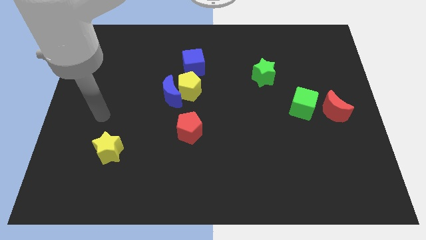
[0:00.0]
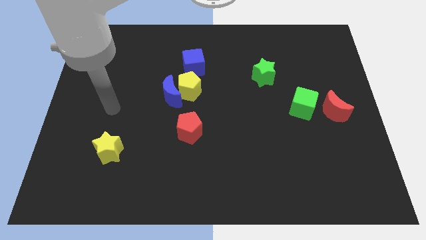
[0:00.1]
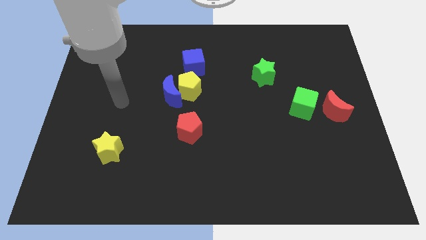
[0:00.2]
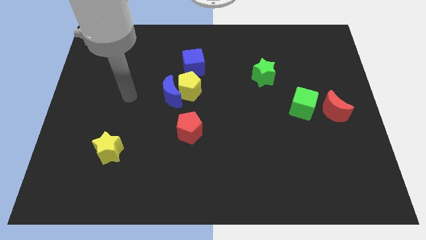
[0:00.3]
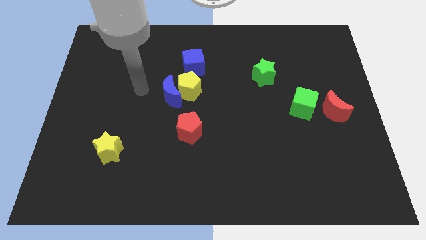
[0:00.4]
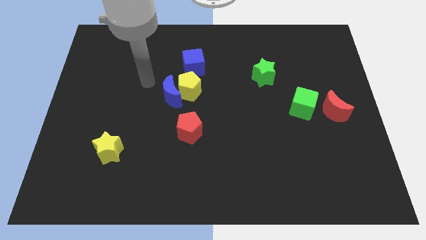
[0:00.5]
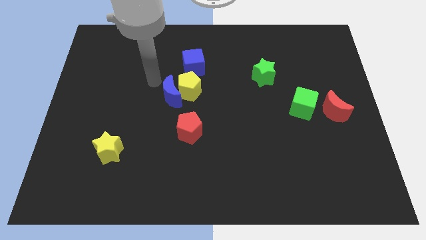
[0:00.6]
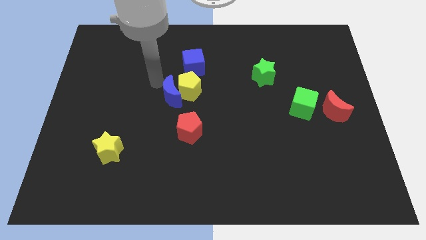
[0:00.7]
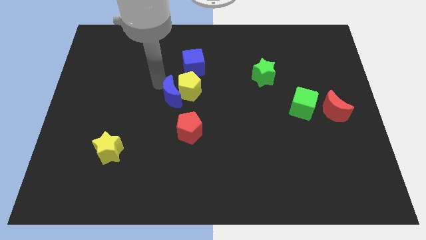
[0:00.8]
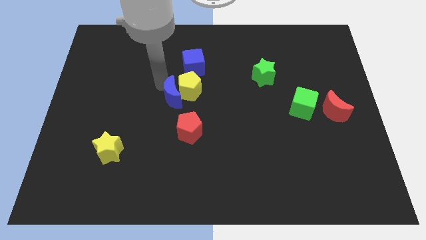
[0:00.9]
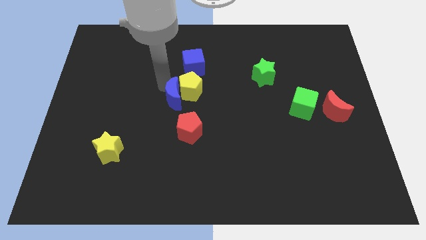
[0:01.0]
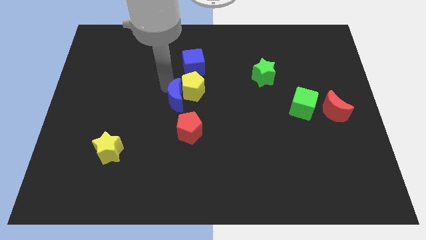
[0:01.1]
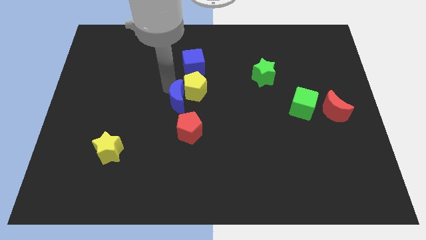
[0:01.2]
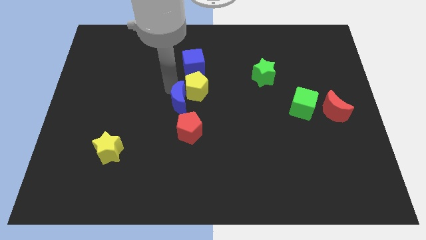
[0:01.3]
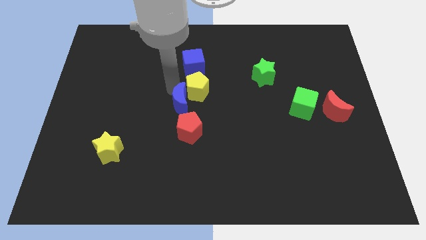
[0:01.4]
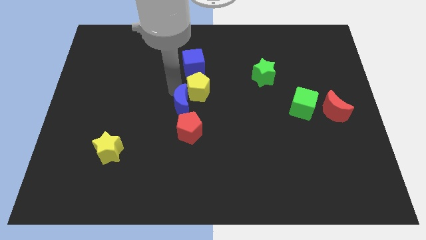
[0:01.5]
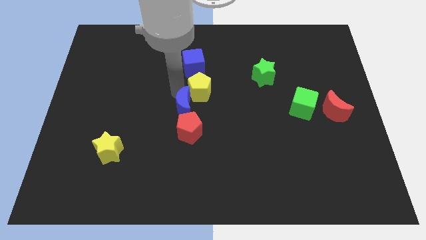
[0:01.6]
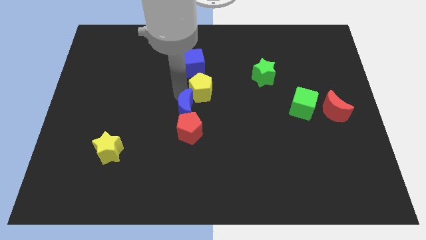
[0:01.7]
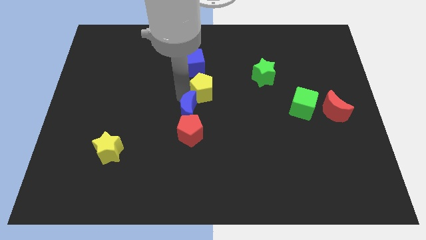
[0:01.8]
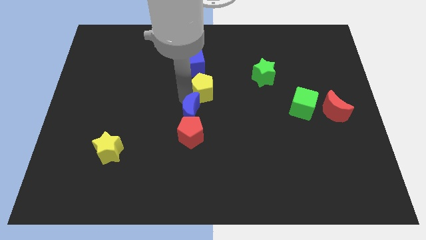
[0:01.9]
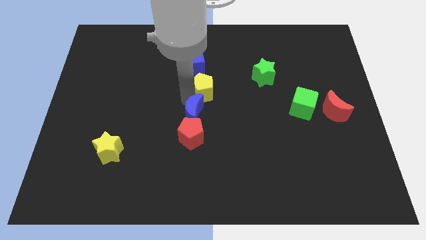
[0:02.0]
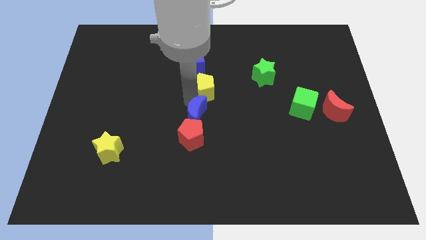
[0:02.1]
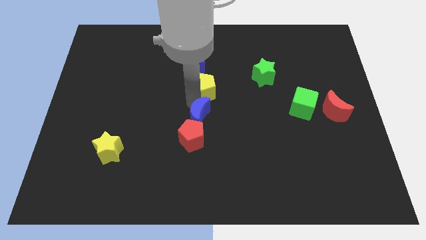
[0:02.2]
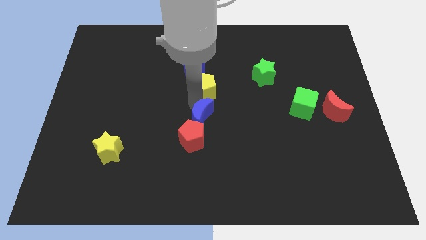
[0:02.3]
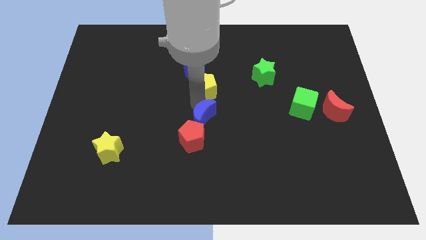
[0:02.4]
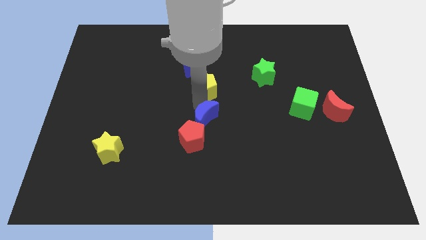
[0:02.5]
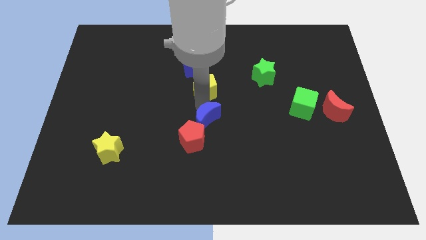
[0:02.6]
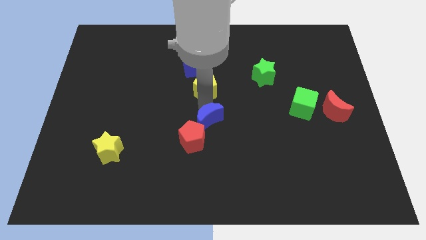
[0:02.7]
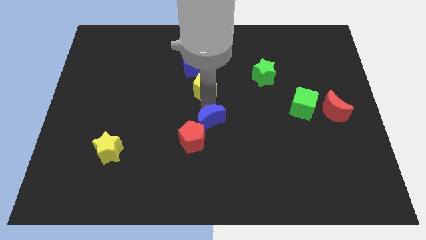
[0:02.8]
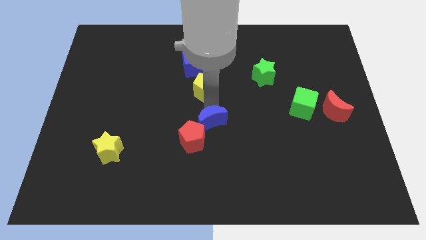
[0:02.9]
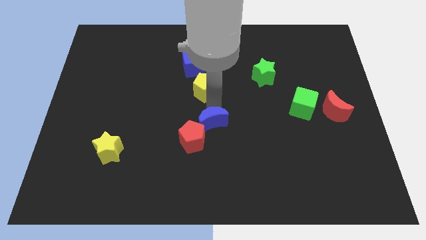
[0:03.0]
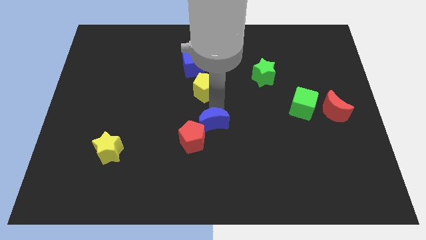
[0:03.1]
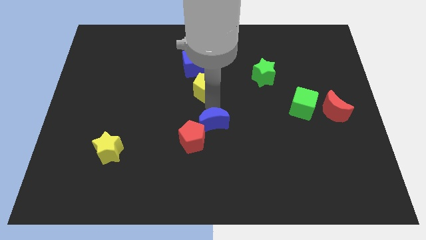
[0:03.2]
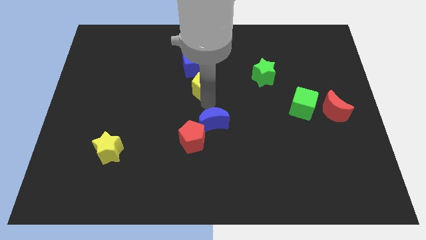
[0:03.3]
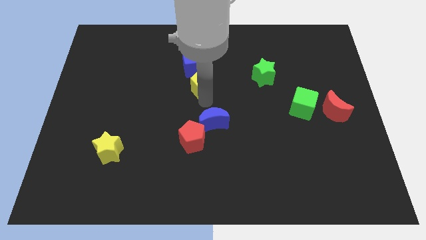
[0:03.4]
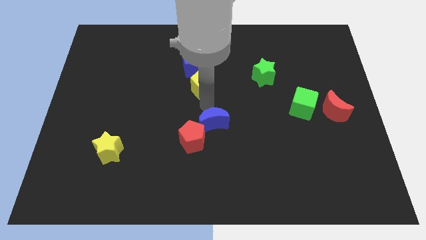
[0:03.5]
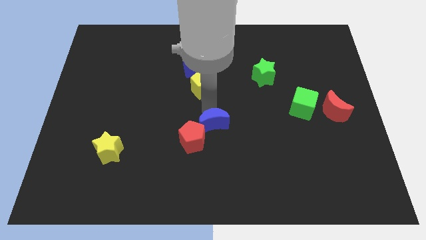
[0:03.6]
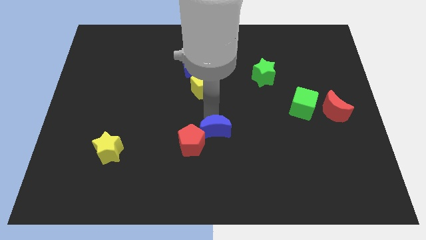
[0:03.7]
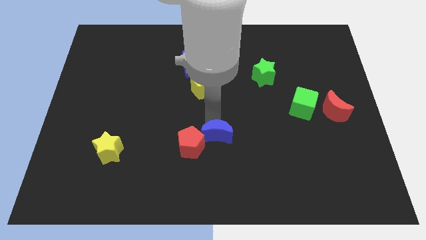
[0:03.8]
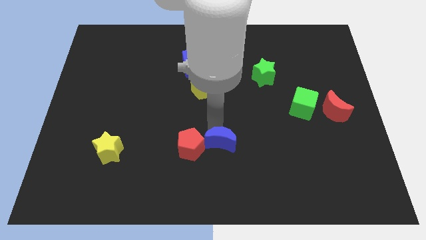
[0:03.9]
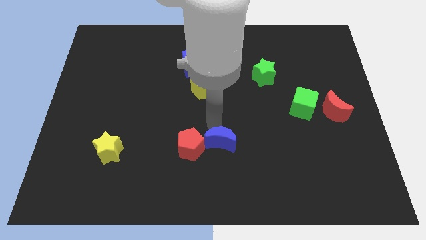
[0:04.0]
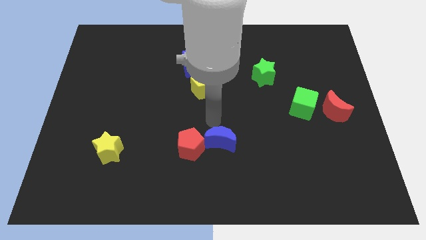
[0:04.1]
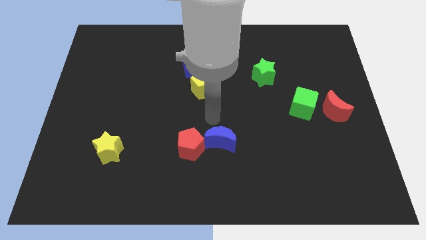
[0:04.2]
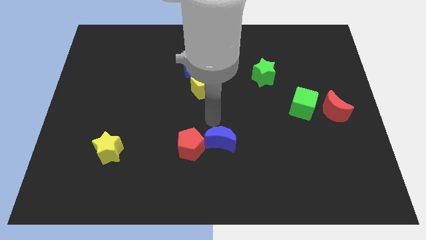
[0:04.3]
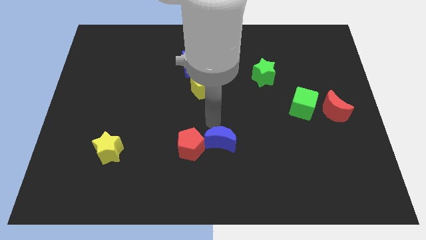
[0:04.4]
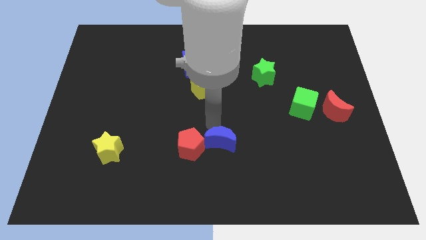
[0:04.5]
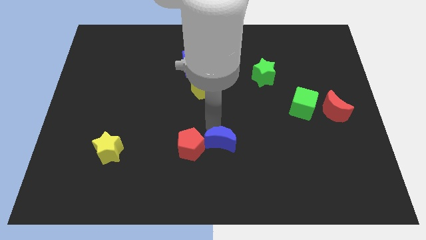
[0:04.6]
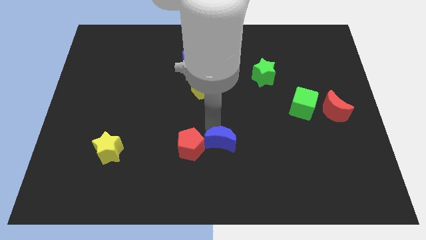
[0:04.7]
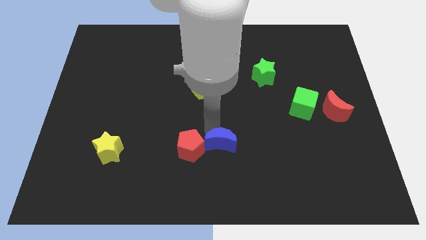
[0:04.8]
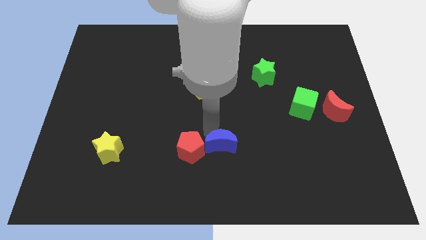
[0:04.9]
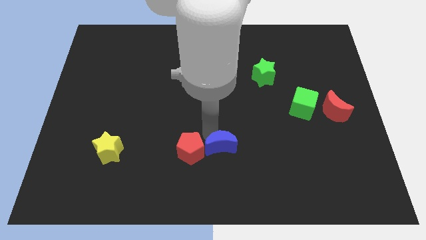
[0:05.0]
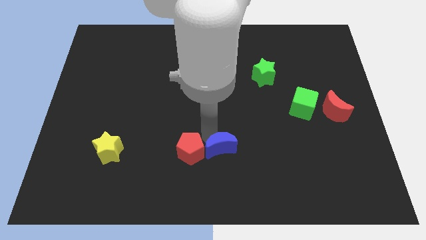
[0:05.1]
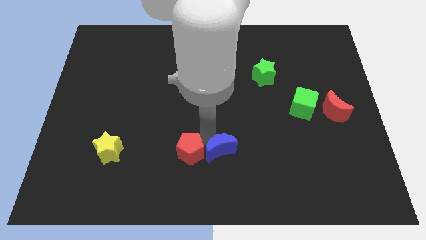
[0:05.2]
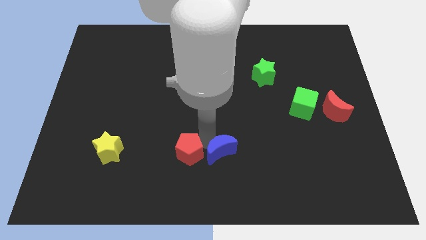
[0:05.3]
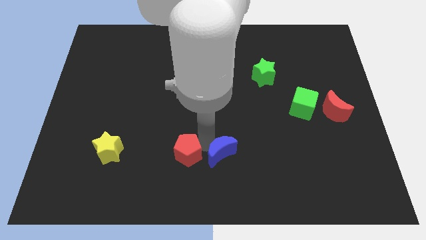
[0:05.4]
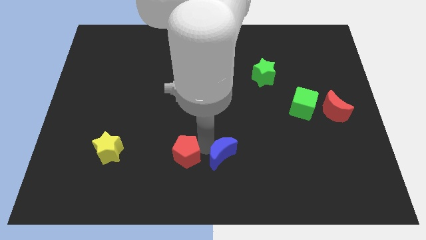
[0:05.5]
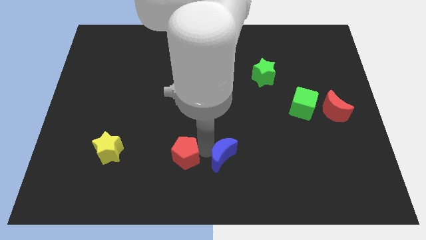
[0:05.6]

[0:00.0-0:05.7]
move the blue moon downwards and then to the right

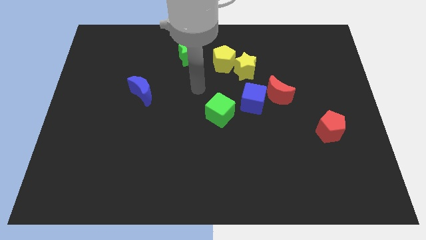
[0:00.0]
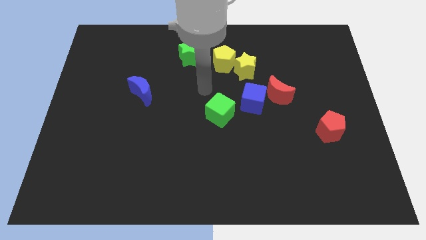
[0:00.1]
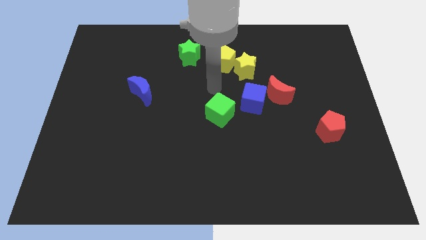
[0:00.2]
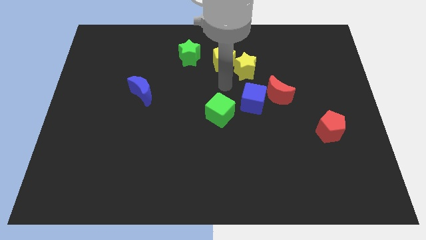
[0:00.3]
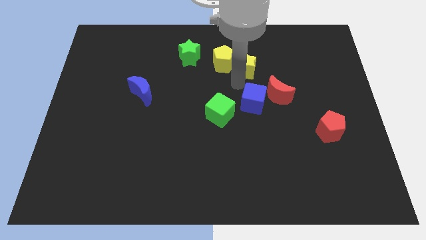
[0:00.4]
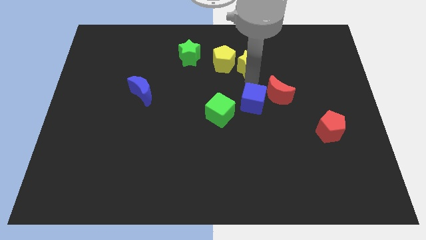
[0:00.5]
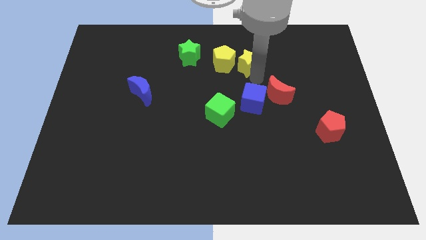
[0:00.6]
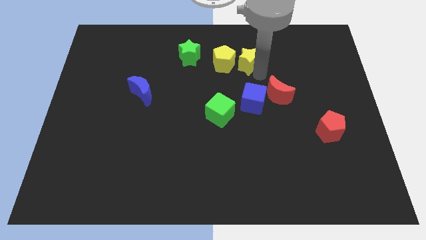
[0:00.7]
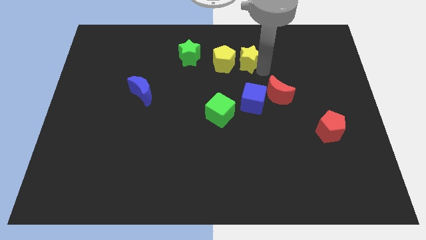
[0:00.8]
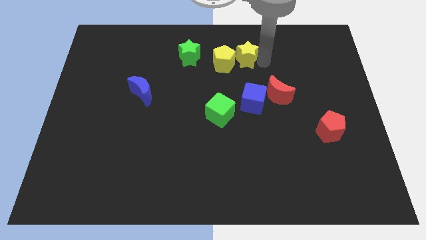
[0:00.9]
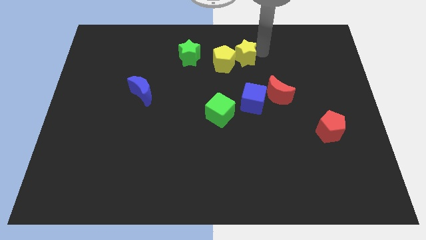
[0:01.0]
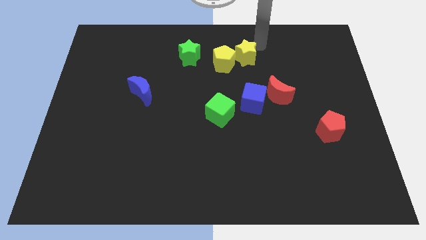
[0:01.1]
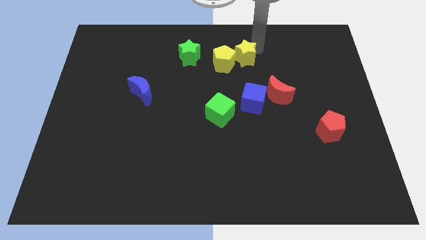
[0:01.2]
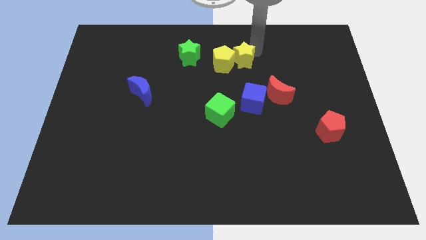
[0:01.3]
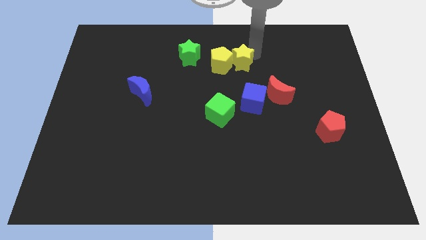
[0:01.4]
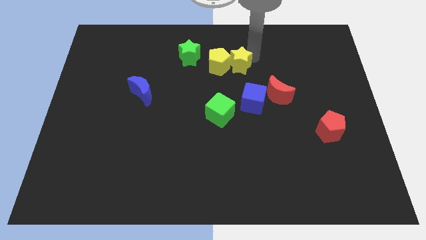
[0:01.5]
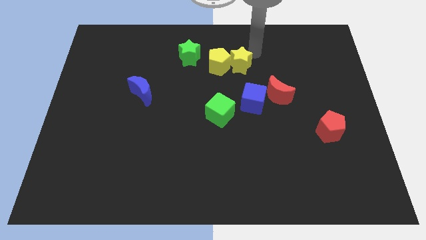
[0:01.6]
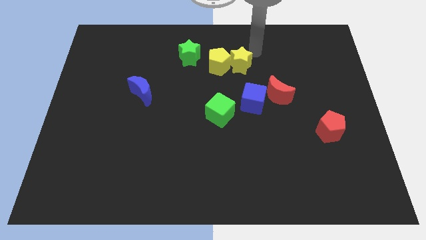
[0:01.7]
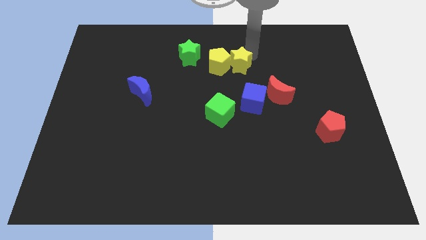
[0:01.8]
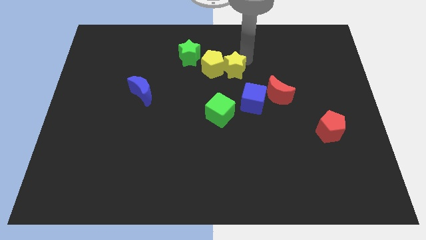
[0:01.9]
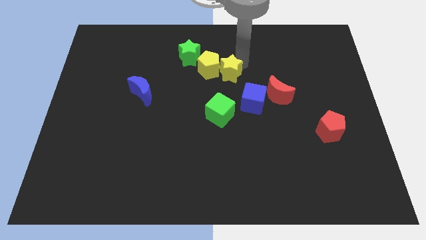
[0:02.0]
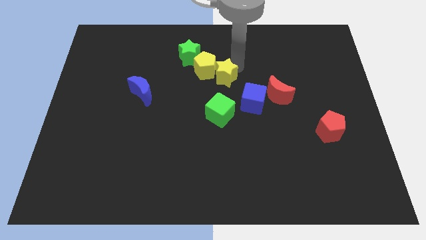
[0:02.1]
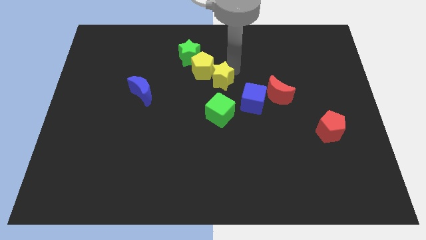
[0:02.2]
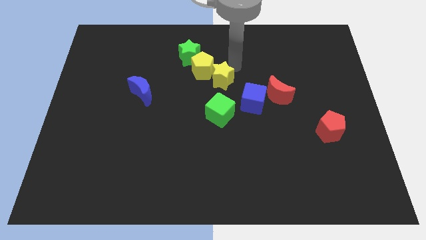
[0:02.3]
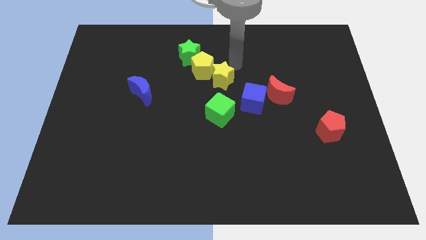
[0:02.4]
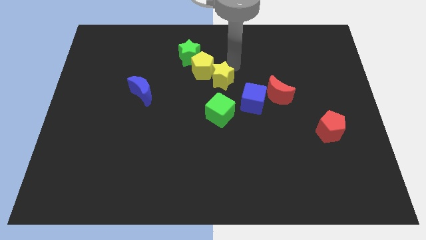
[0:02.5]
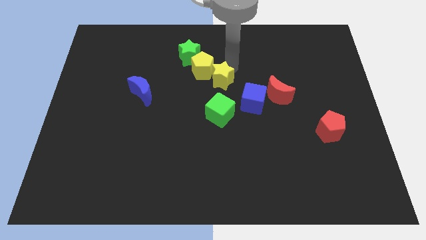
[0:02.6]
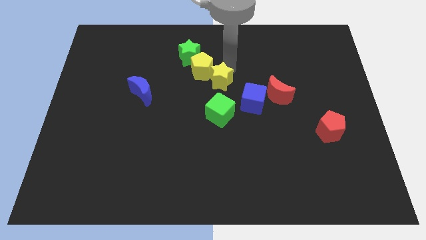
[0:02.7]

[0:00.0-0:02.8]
move the yellow star slightly downwards and then to the left
